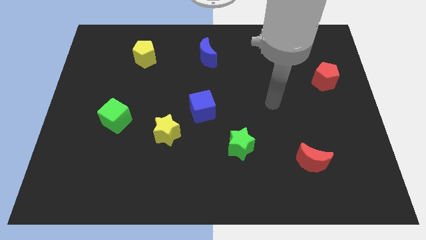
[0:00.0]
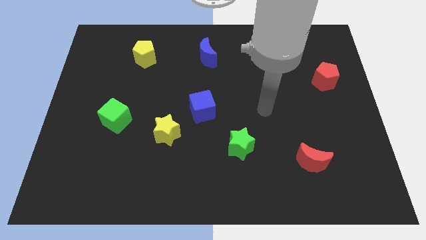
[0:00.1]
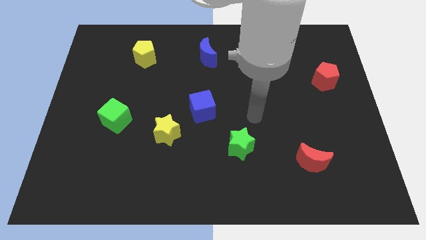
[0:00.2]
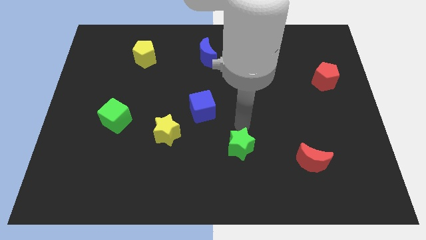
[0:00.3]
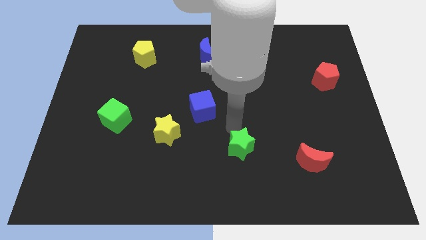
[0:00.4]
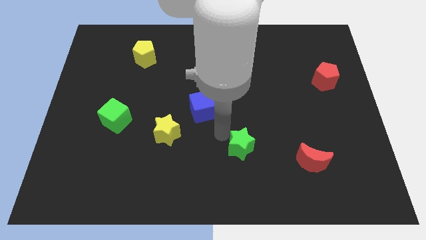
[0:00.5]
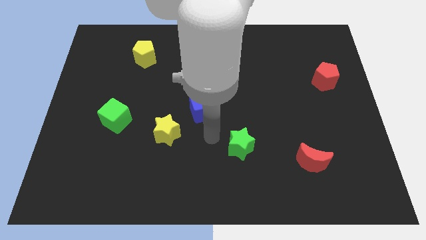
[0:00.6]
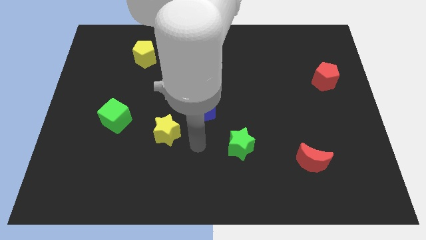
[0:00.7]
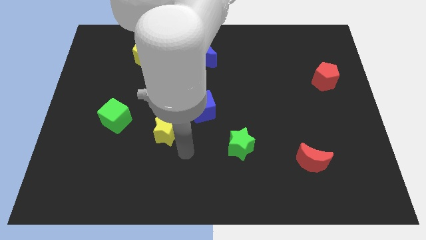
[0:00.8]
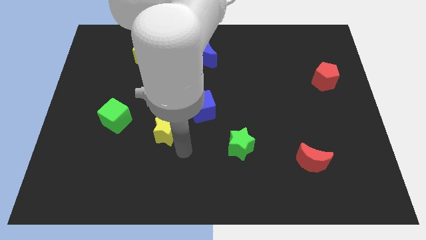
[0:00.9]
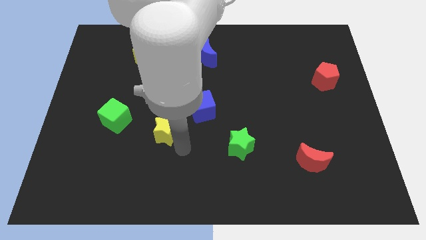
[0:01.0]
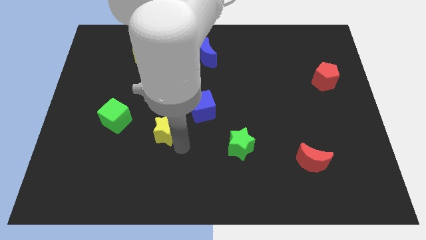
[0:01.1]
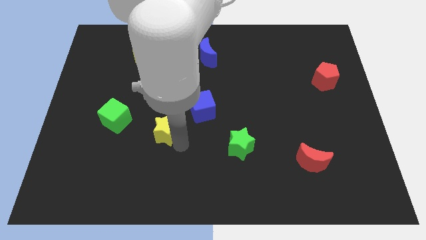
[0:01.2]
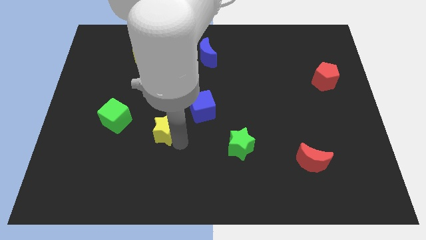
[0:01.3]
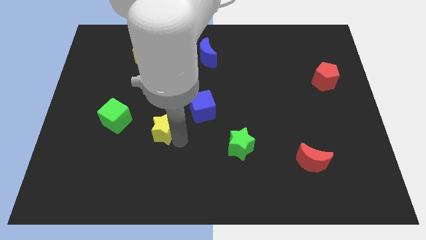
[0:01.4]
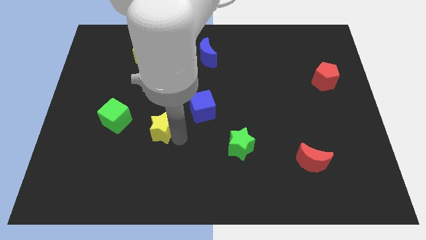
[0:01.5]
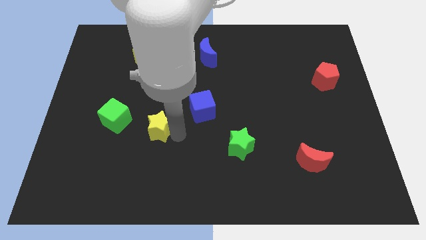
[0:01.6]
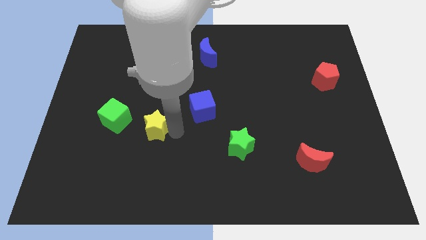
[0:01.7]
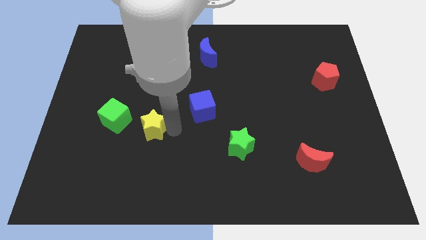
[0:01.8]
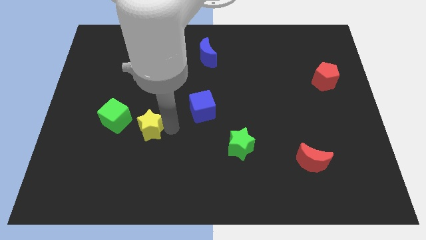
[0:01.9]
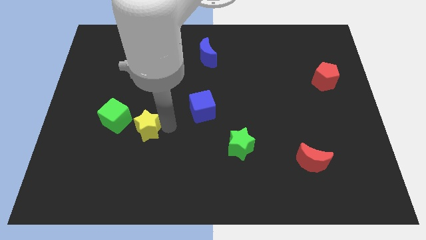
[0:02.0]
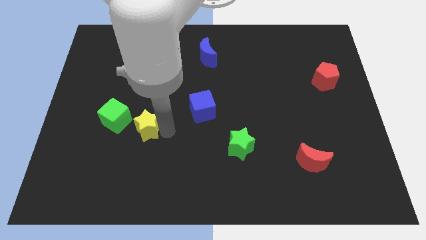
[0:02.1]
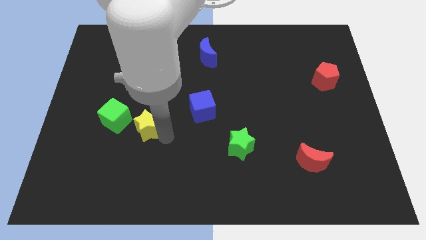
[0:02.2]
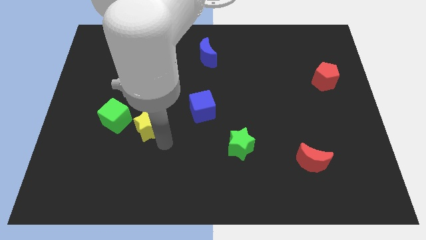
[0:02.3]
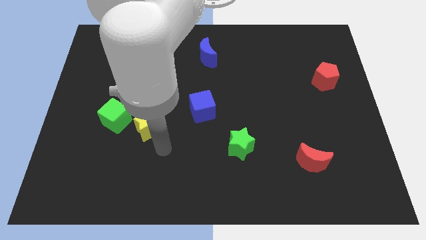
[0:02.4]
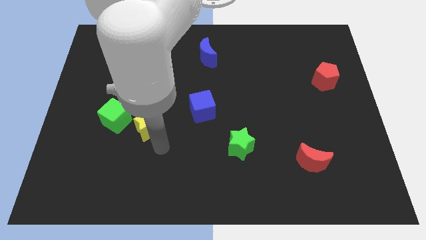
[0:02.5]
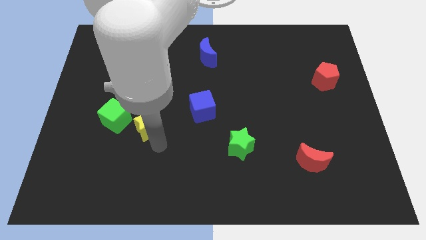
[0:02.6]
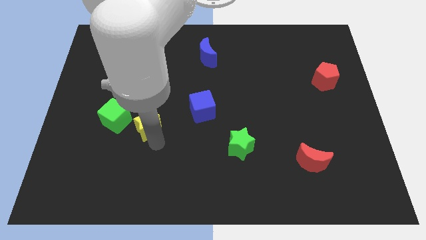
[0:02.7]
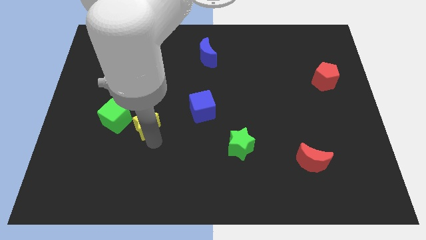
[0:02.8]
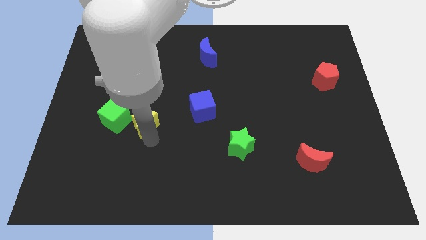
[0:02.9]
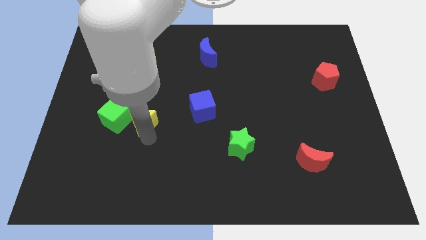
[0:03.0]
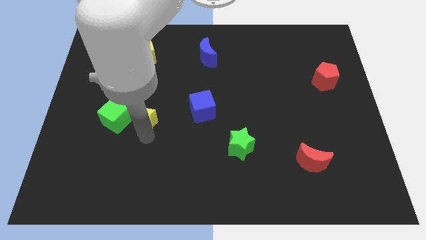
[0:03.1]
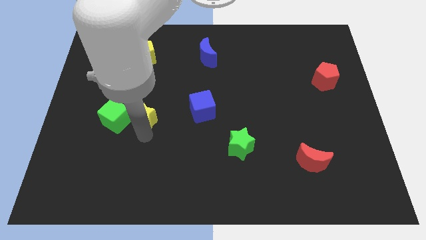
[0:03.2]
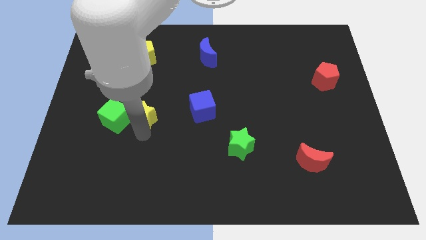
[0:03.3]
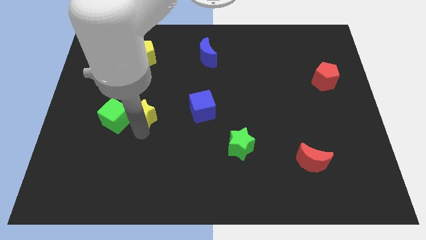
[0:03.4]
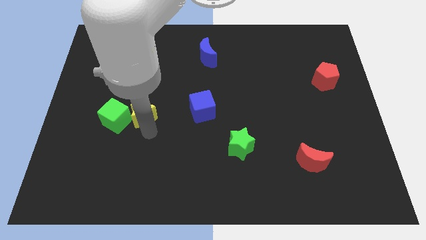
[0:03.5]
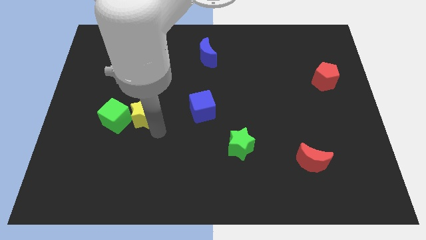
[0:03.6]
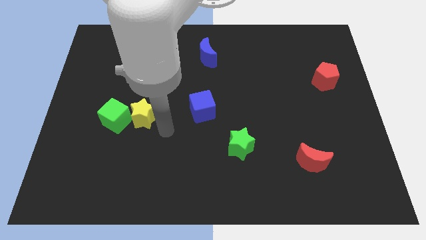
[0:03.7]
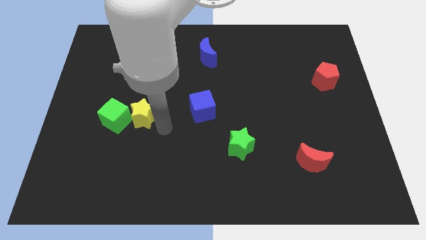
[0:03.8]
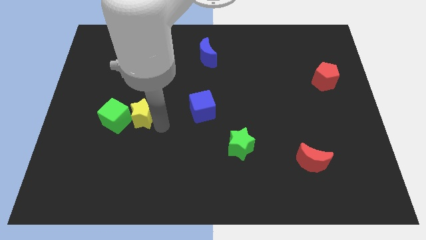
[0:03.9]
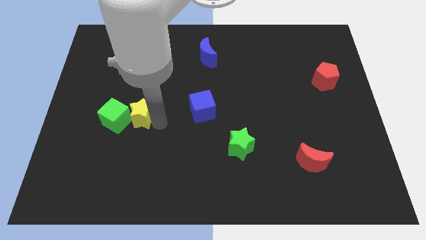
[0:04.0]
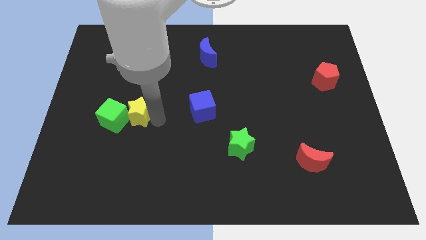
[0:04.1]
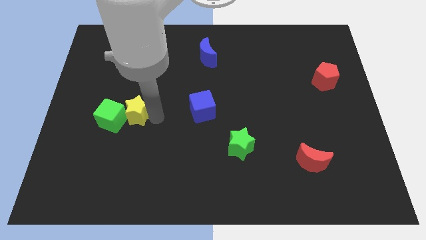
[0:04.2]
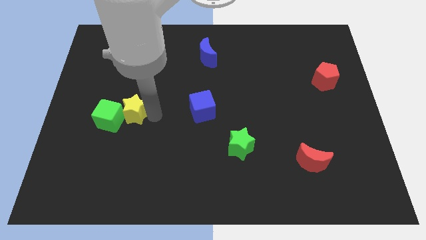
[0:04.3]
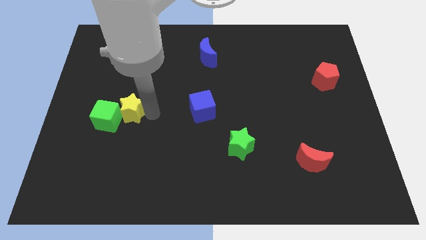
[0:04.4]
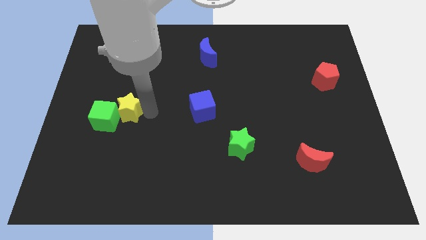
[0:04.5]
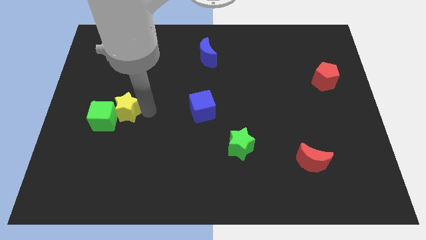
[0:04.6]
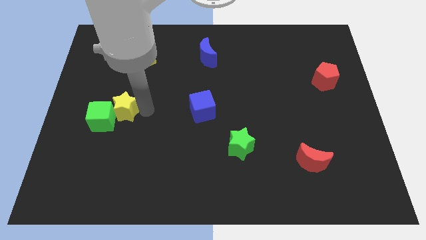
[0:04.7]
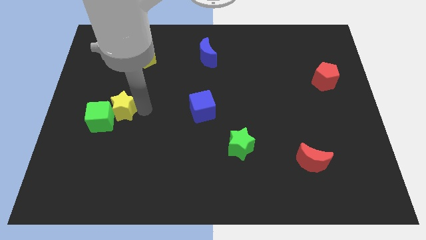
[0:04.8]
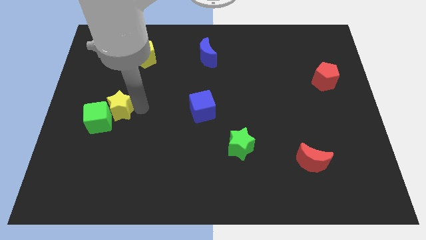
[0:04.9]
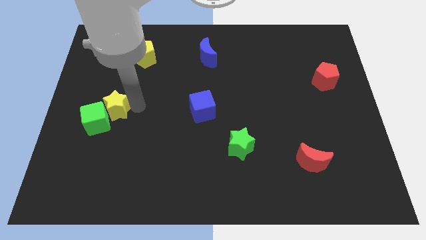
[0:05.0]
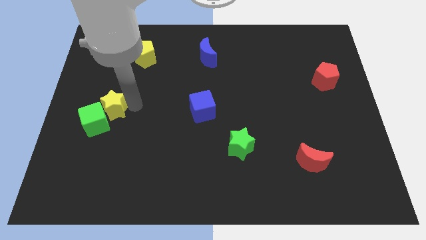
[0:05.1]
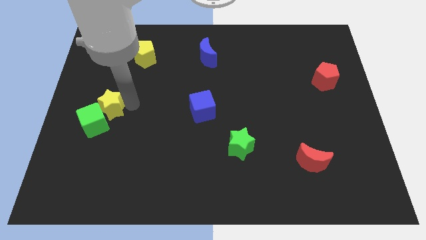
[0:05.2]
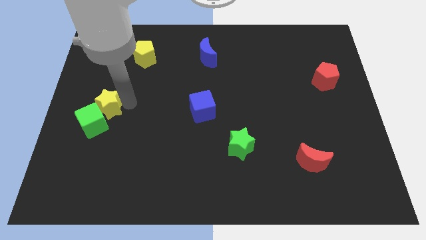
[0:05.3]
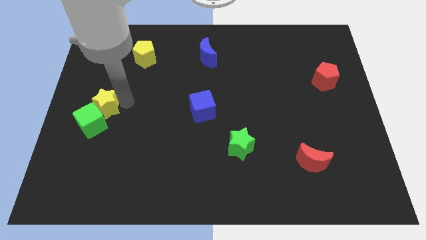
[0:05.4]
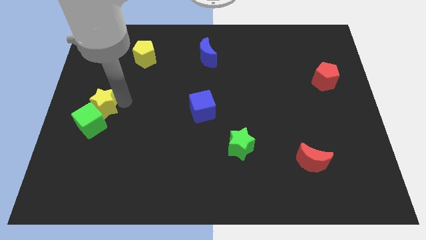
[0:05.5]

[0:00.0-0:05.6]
push the yellow star to the left side of the board
